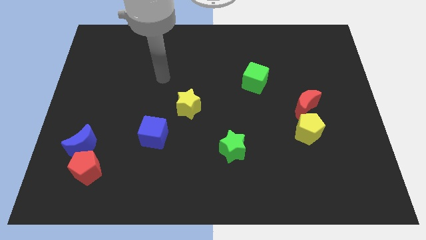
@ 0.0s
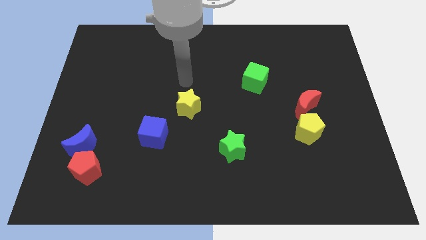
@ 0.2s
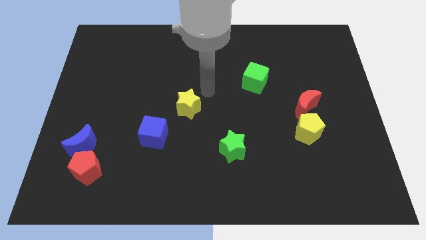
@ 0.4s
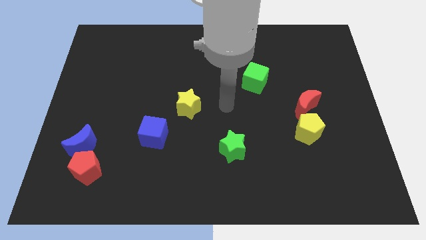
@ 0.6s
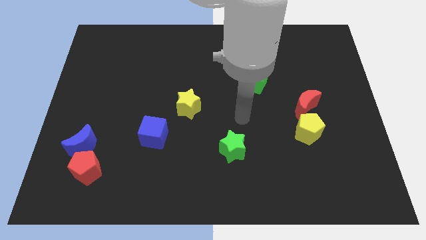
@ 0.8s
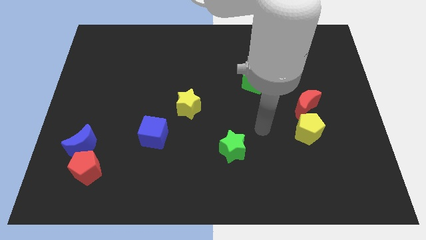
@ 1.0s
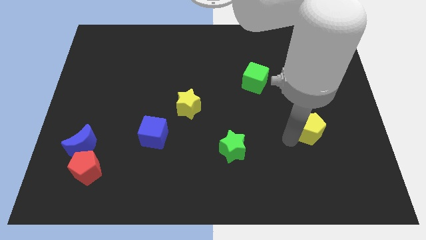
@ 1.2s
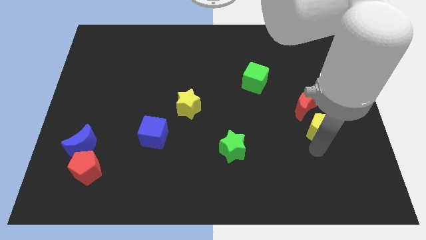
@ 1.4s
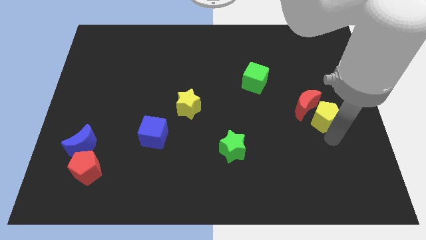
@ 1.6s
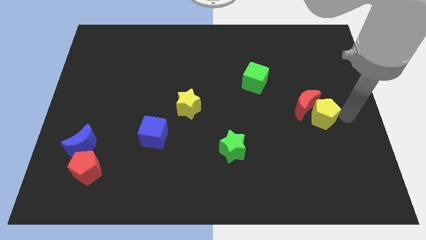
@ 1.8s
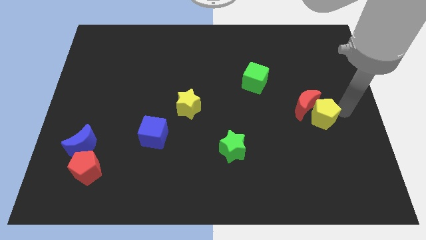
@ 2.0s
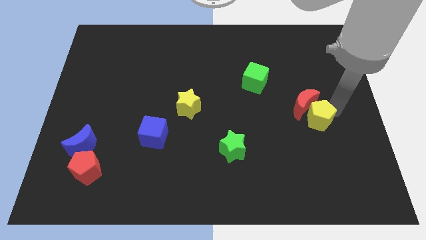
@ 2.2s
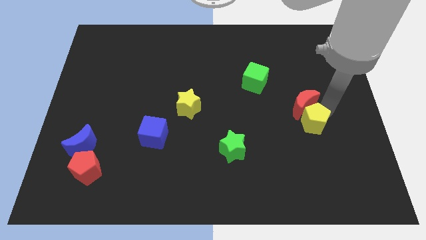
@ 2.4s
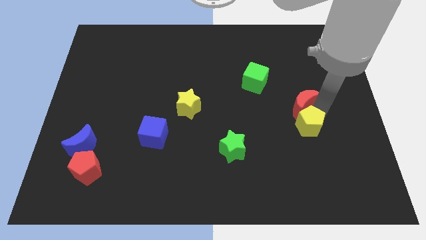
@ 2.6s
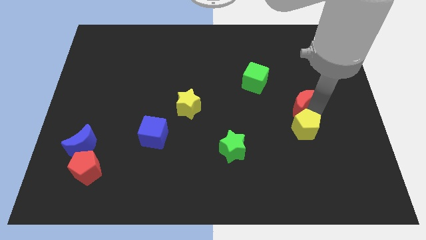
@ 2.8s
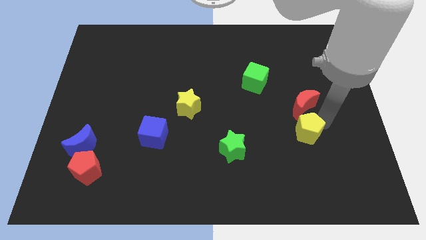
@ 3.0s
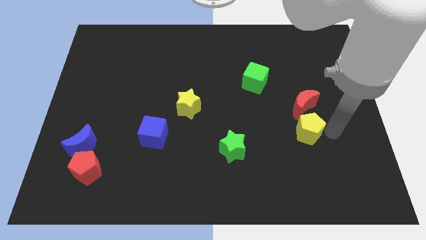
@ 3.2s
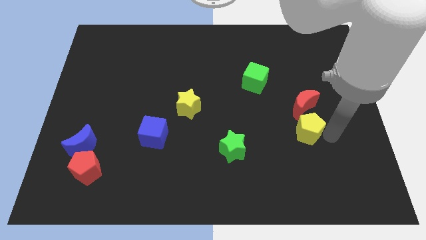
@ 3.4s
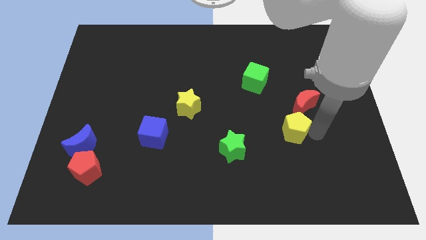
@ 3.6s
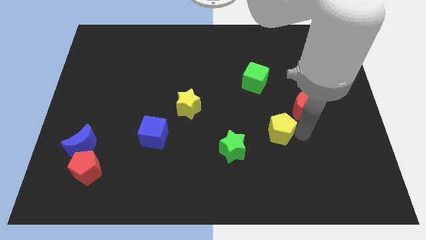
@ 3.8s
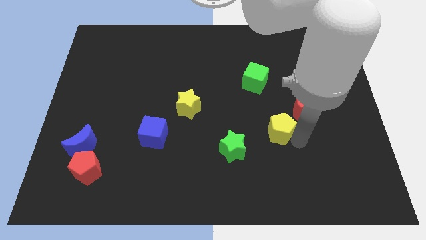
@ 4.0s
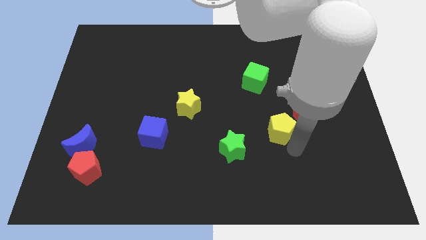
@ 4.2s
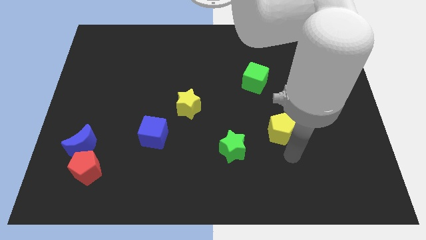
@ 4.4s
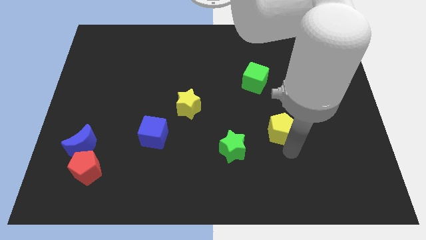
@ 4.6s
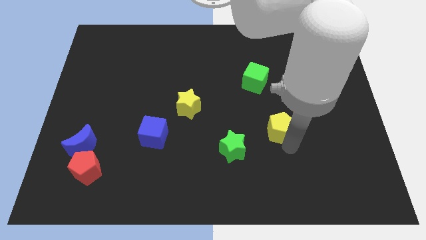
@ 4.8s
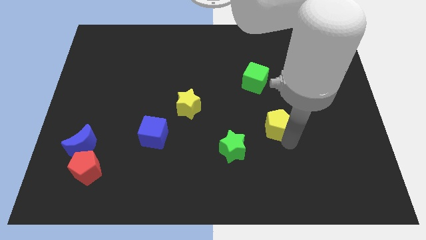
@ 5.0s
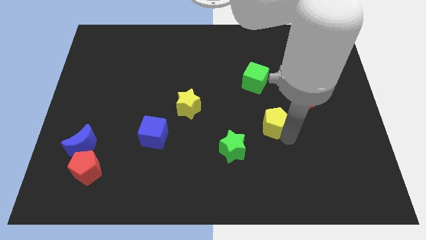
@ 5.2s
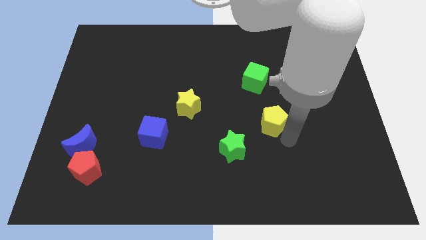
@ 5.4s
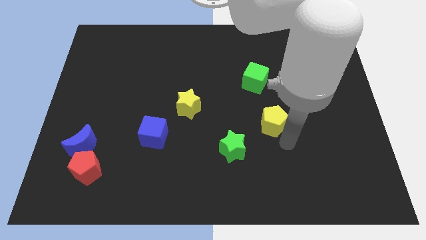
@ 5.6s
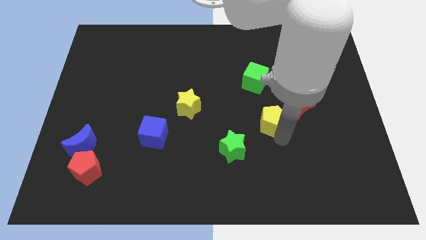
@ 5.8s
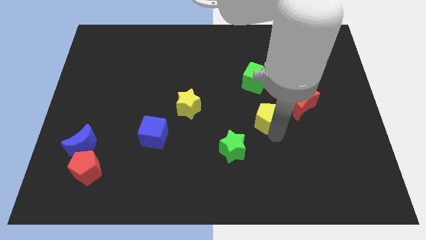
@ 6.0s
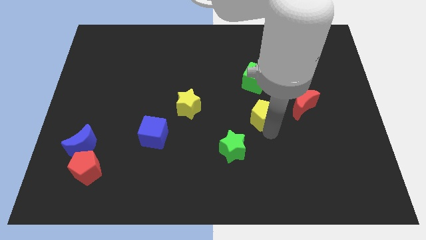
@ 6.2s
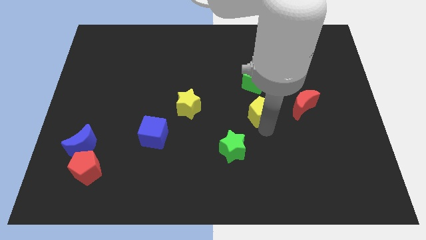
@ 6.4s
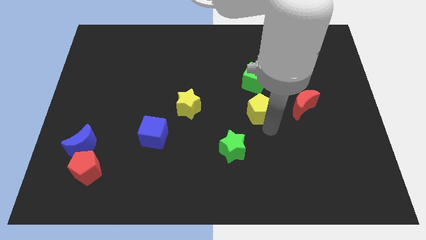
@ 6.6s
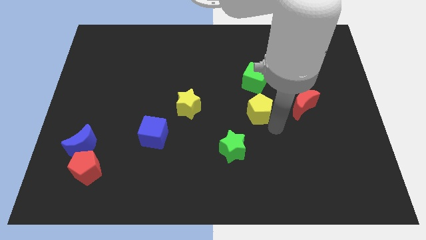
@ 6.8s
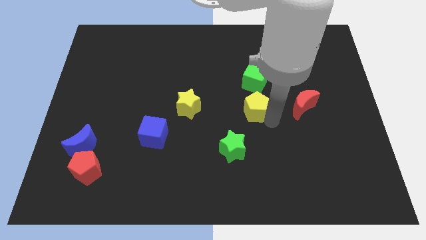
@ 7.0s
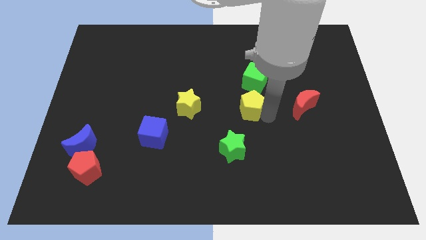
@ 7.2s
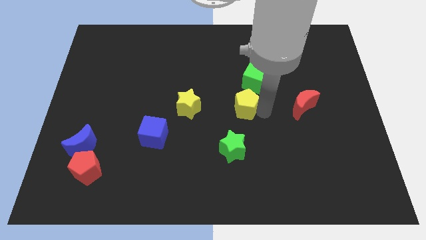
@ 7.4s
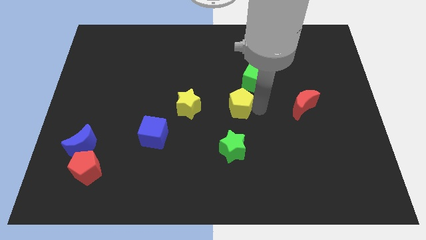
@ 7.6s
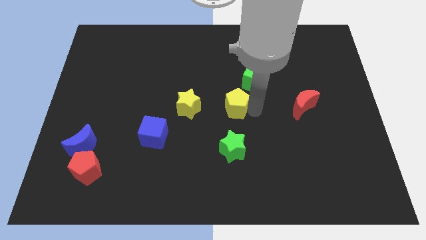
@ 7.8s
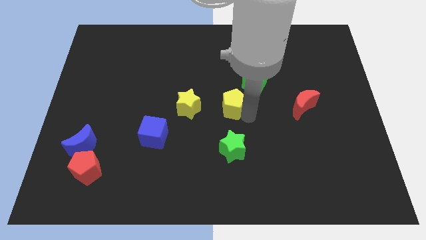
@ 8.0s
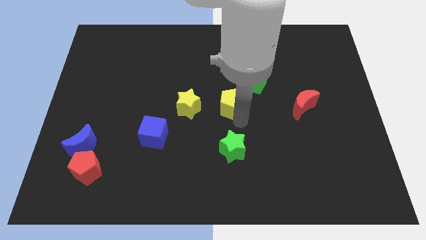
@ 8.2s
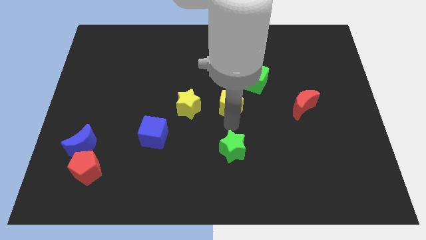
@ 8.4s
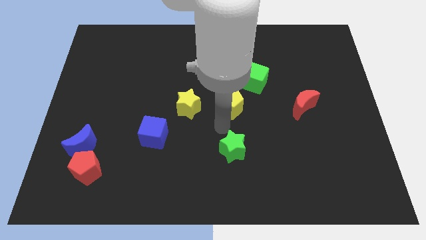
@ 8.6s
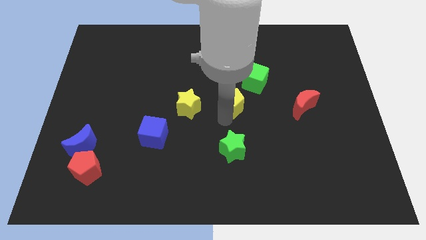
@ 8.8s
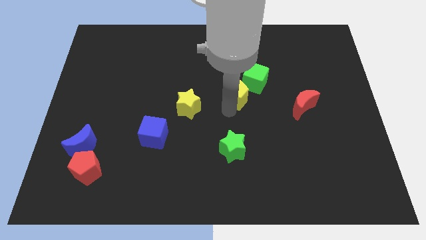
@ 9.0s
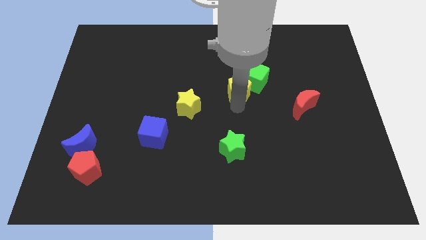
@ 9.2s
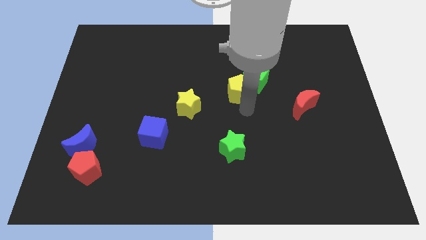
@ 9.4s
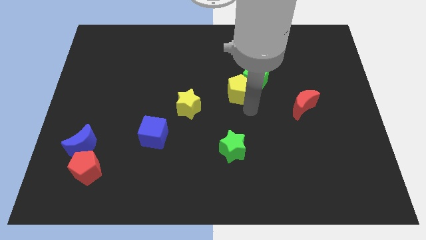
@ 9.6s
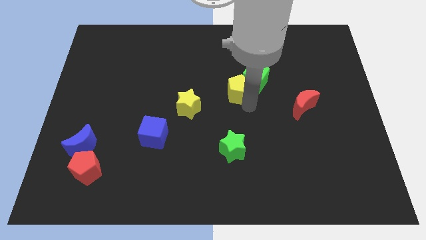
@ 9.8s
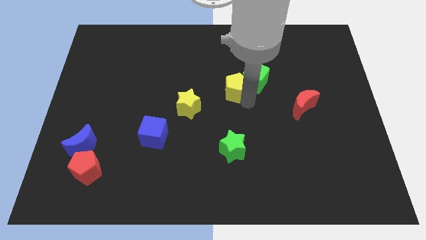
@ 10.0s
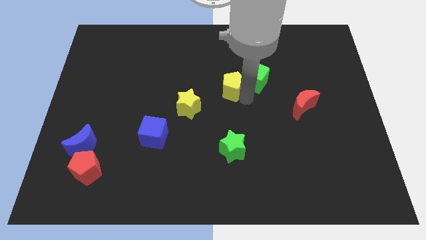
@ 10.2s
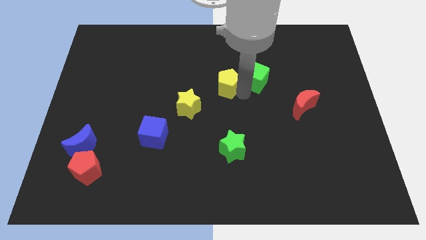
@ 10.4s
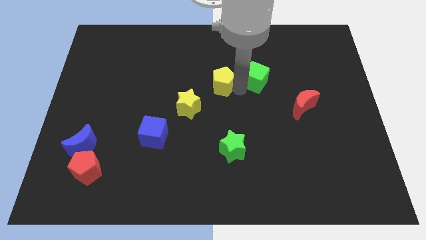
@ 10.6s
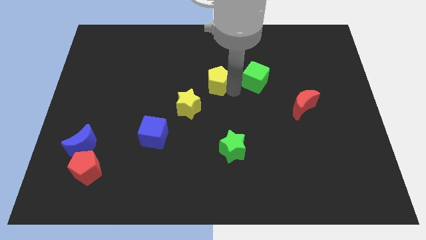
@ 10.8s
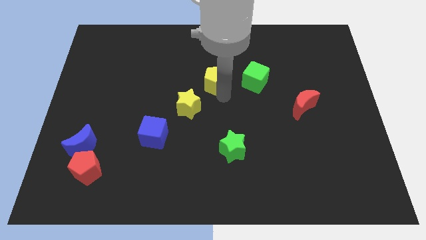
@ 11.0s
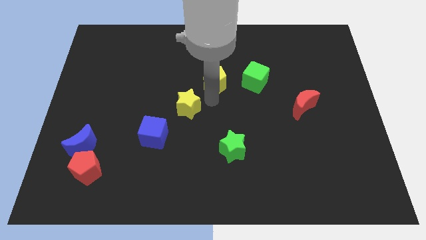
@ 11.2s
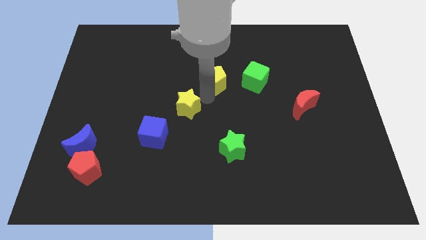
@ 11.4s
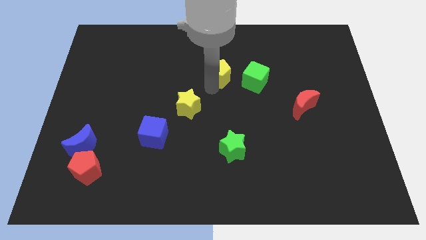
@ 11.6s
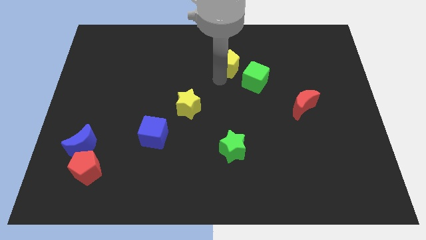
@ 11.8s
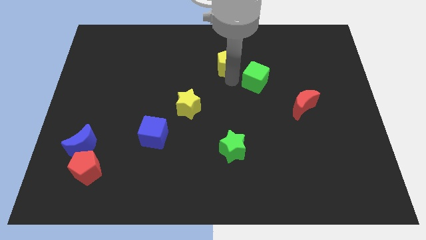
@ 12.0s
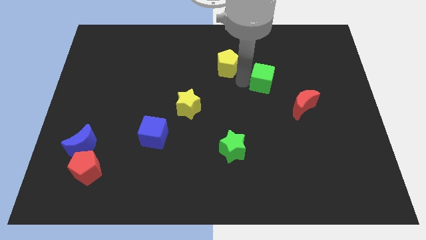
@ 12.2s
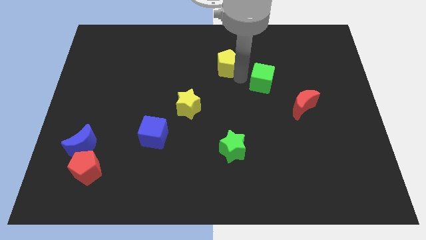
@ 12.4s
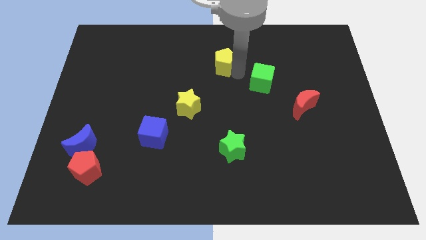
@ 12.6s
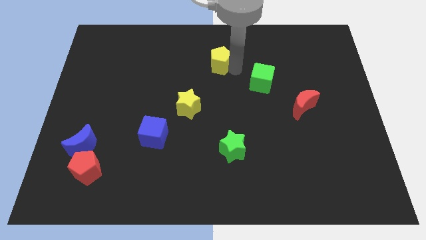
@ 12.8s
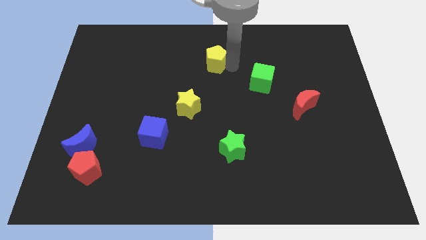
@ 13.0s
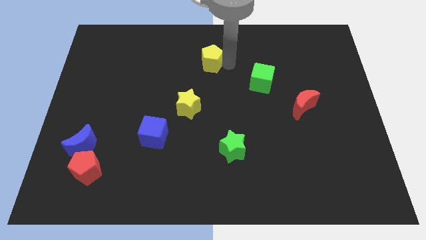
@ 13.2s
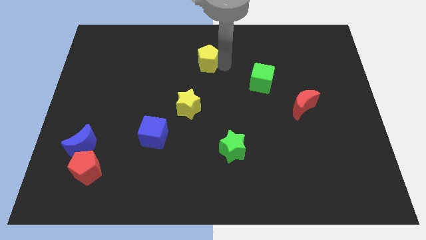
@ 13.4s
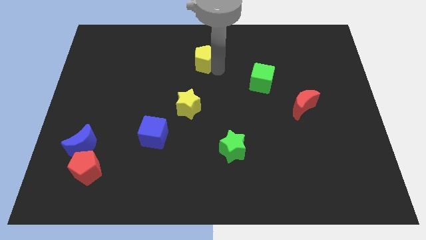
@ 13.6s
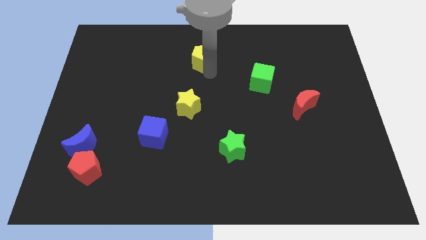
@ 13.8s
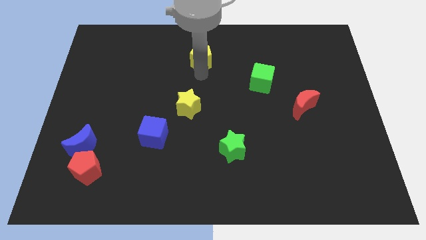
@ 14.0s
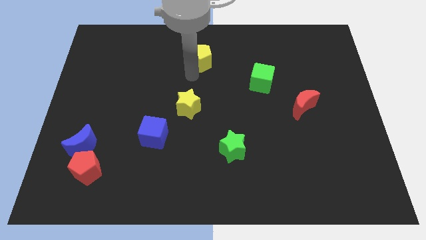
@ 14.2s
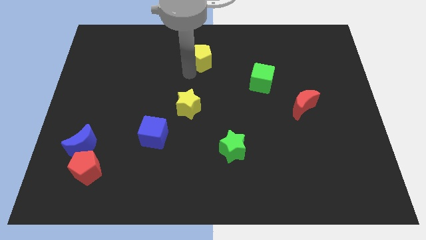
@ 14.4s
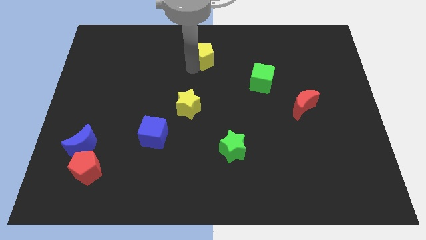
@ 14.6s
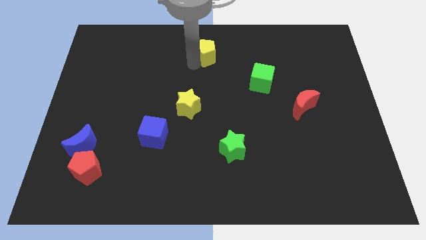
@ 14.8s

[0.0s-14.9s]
move the yellow pentagon to the top
